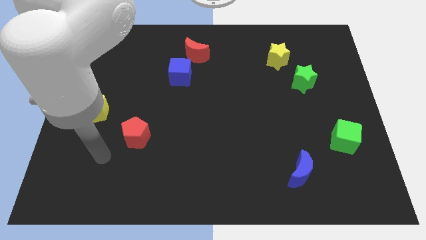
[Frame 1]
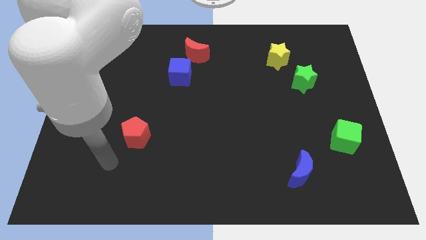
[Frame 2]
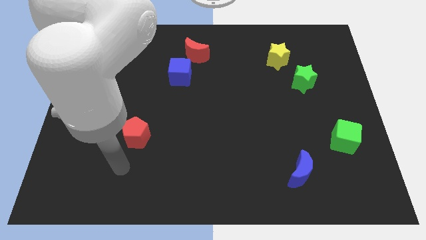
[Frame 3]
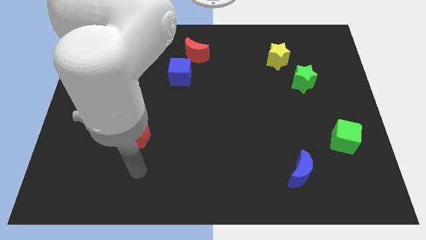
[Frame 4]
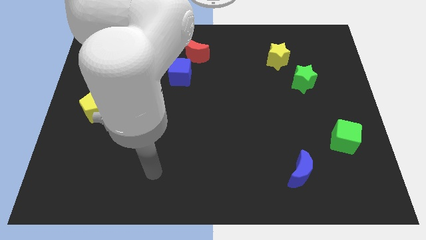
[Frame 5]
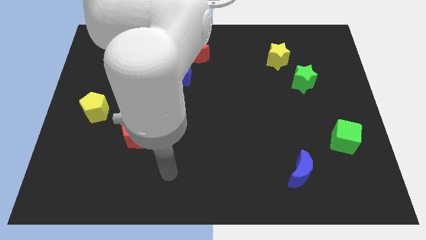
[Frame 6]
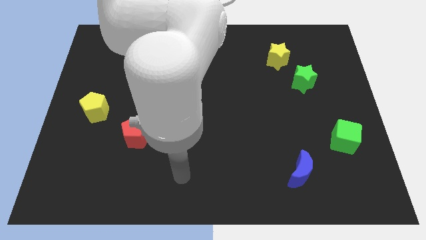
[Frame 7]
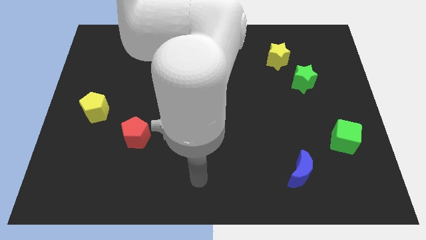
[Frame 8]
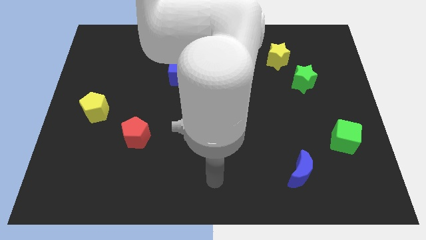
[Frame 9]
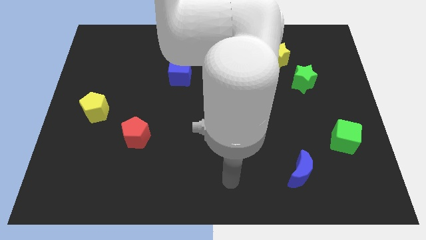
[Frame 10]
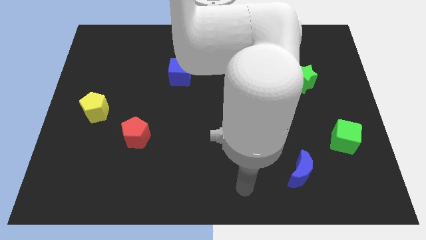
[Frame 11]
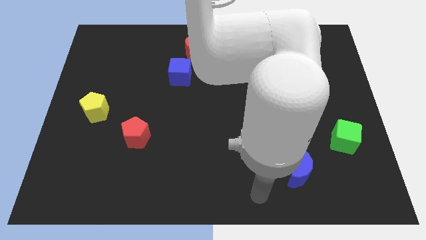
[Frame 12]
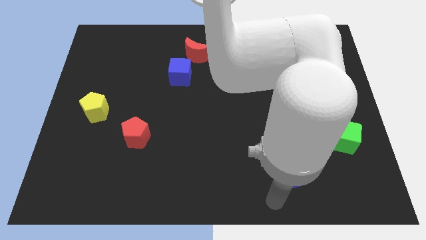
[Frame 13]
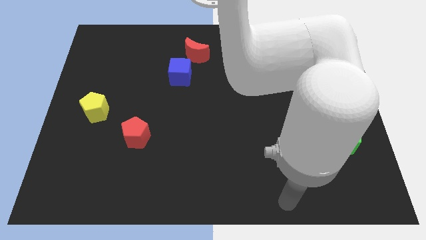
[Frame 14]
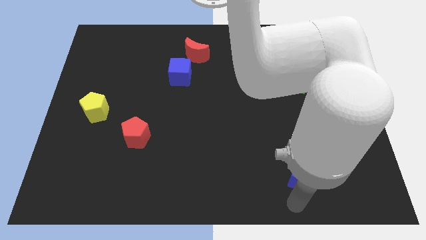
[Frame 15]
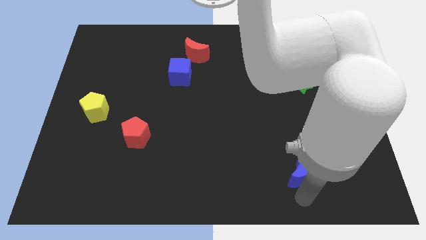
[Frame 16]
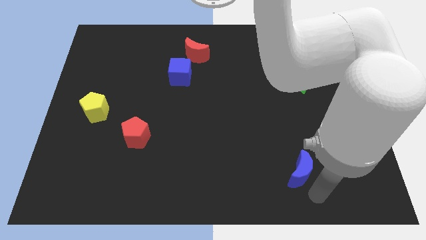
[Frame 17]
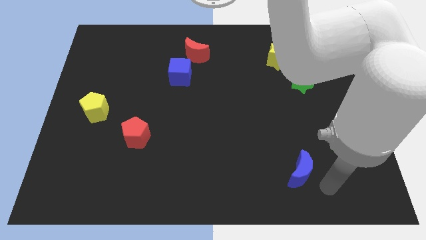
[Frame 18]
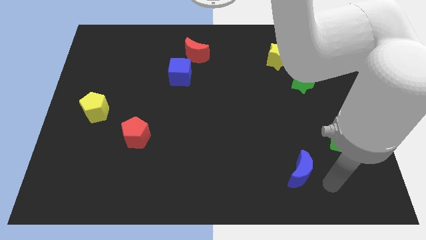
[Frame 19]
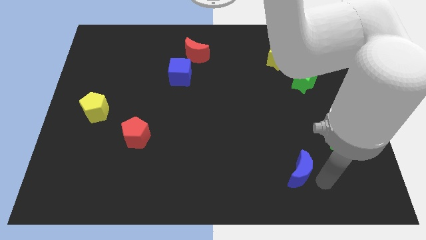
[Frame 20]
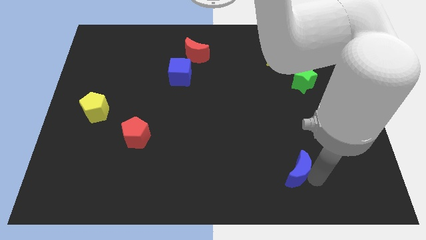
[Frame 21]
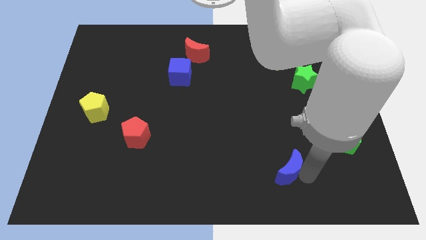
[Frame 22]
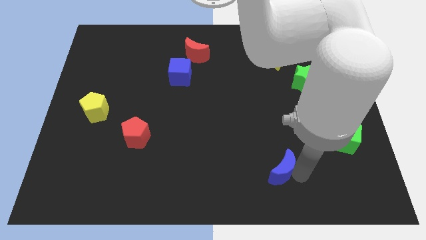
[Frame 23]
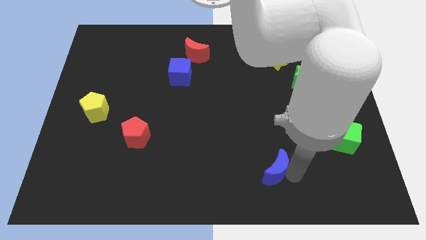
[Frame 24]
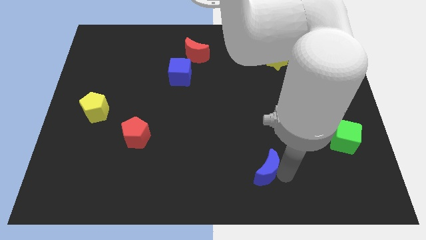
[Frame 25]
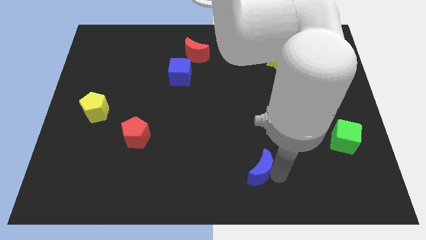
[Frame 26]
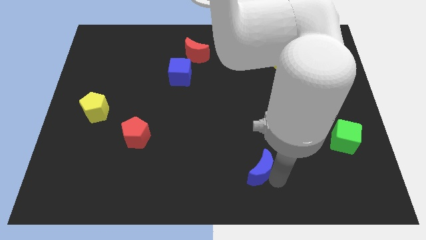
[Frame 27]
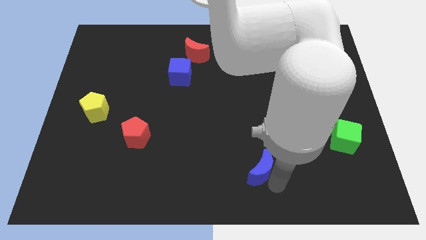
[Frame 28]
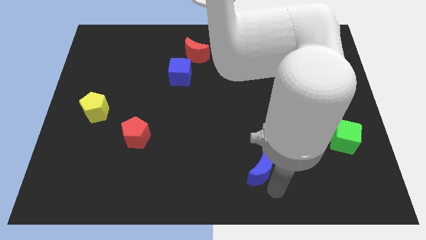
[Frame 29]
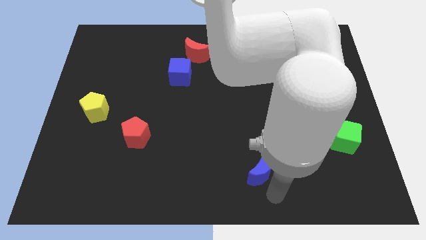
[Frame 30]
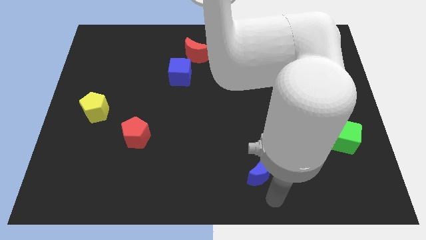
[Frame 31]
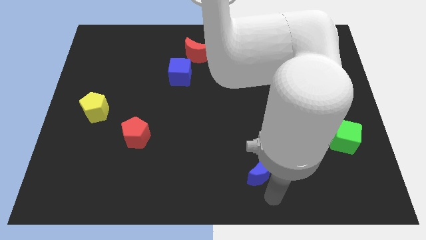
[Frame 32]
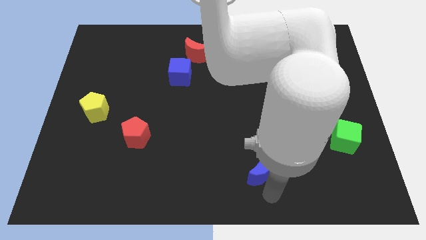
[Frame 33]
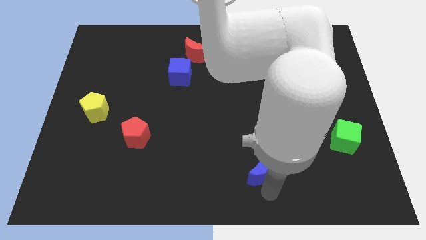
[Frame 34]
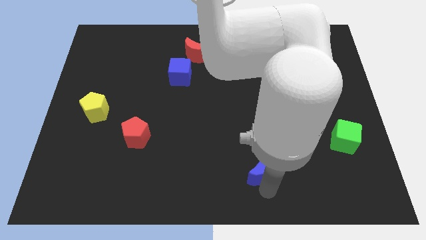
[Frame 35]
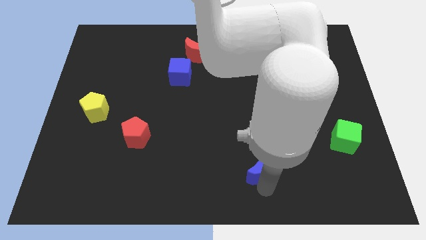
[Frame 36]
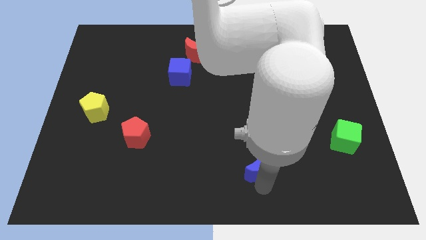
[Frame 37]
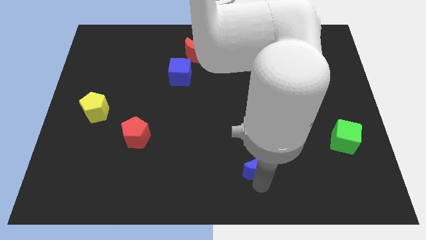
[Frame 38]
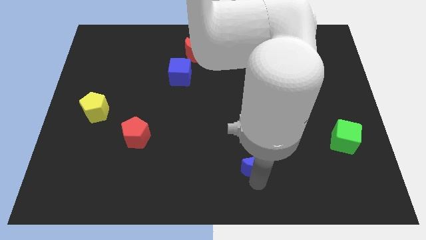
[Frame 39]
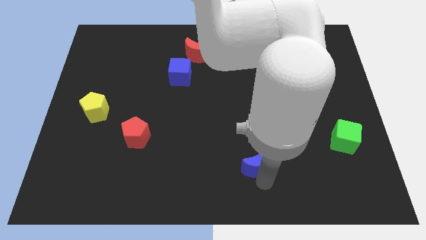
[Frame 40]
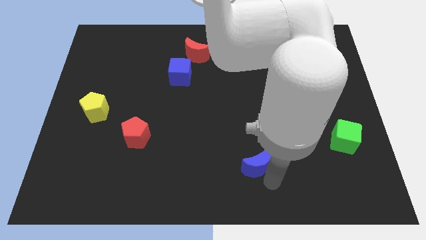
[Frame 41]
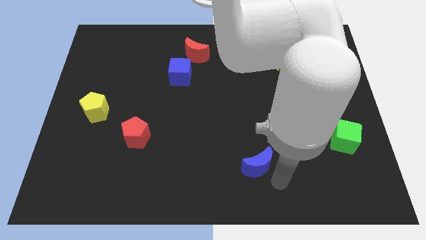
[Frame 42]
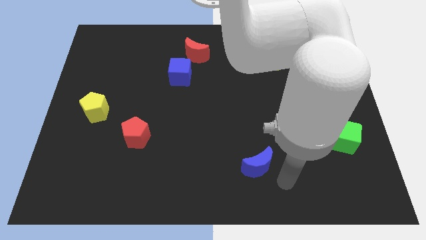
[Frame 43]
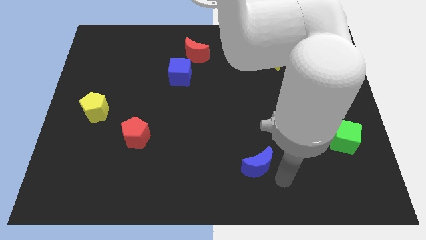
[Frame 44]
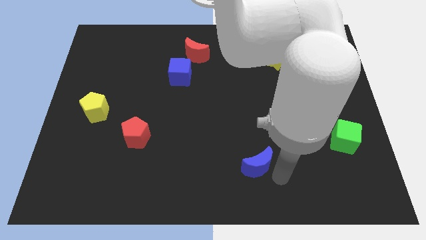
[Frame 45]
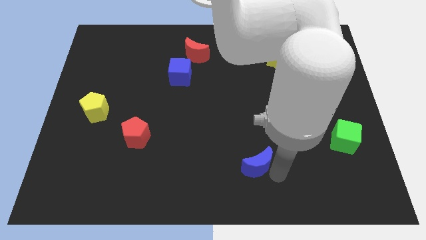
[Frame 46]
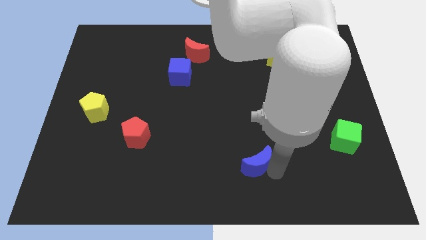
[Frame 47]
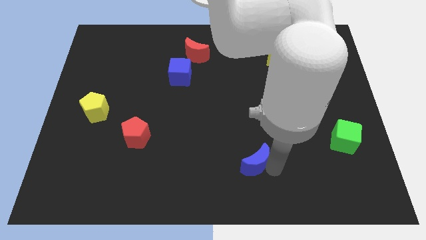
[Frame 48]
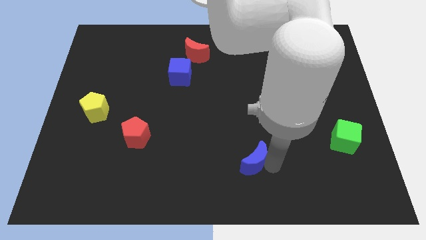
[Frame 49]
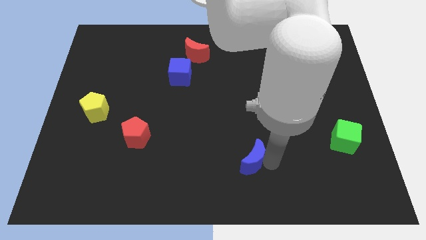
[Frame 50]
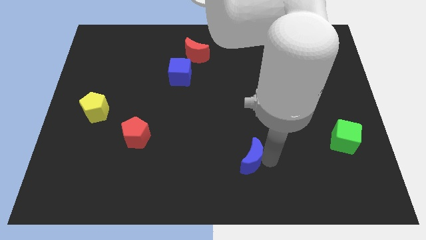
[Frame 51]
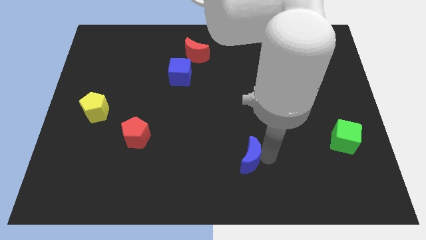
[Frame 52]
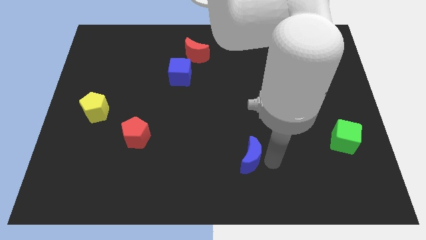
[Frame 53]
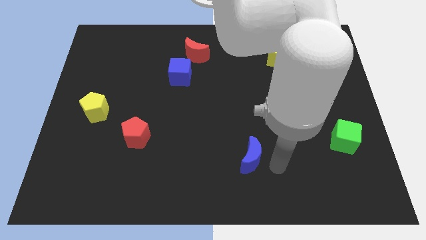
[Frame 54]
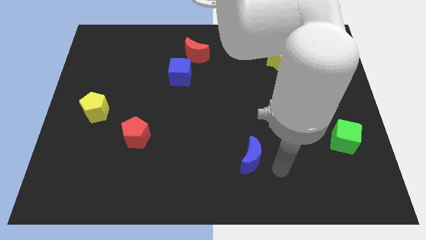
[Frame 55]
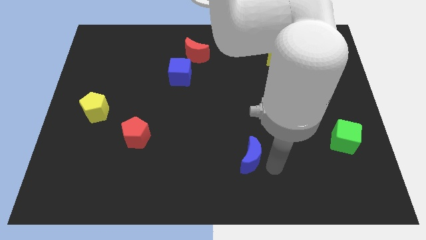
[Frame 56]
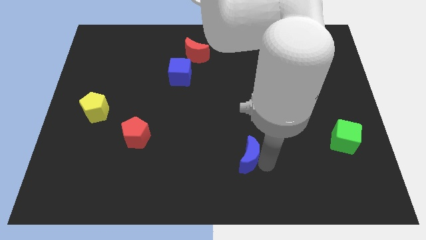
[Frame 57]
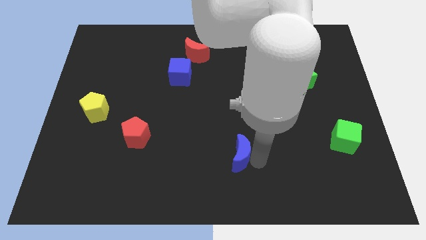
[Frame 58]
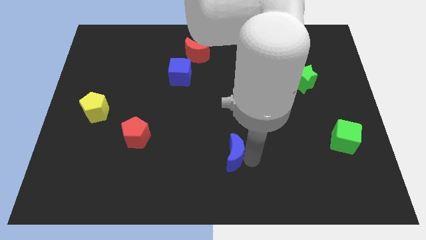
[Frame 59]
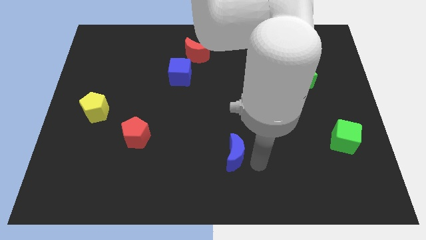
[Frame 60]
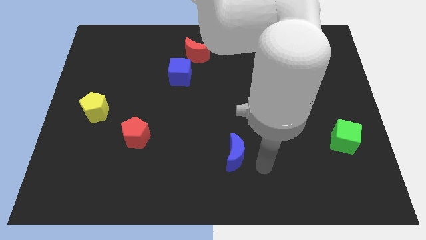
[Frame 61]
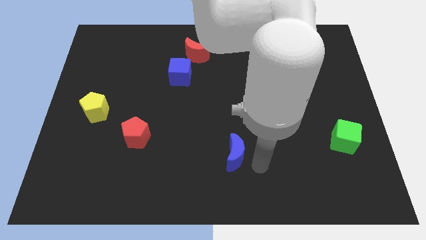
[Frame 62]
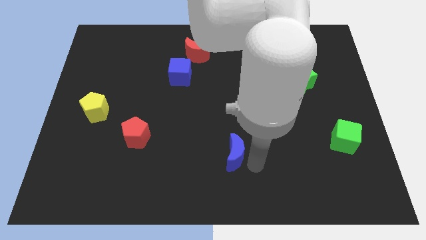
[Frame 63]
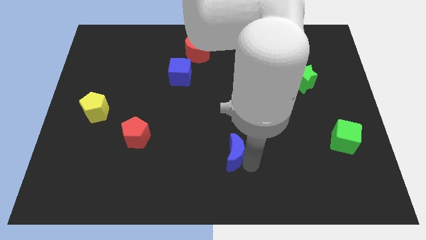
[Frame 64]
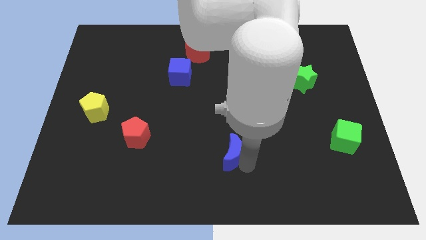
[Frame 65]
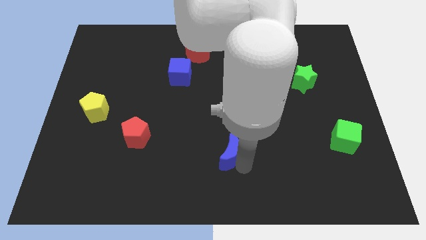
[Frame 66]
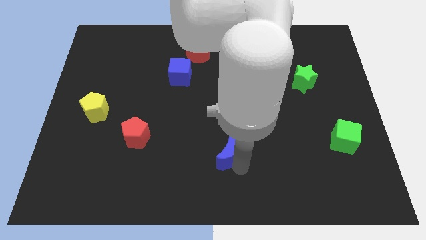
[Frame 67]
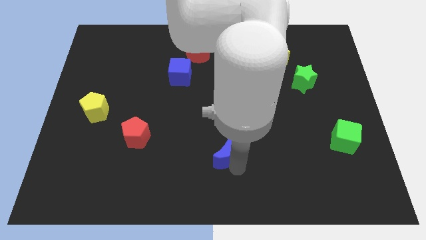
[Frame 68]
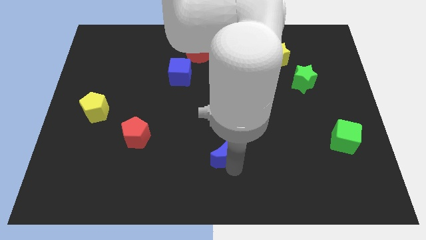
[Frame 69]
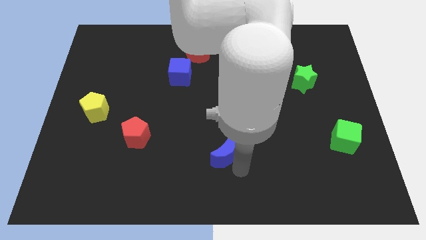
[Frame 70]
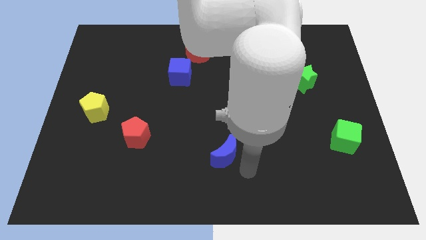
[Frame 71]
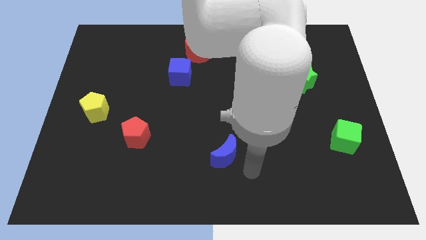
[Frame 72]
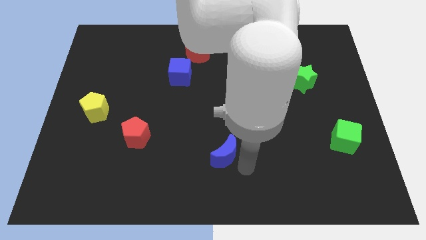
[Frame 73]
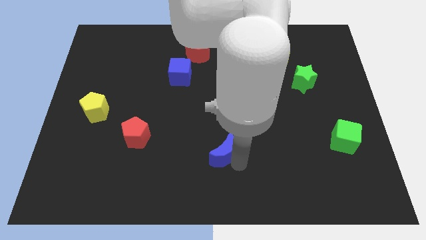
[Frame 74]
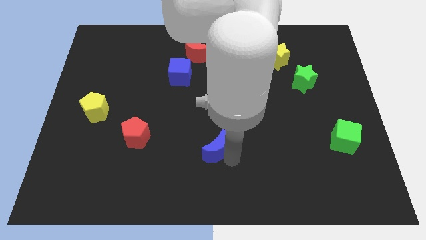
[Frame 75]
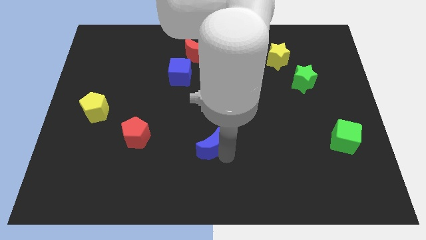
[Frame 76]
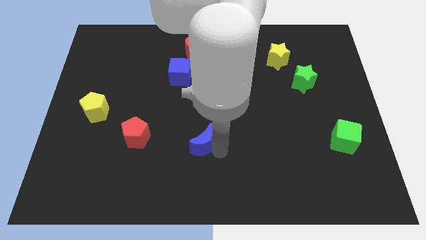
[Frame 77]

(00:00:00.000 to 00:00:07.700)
slide the blue moon right of the red pentagon

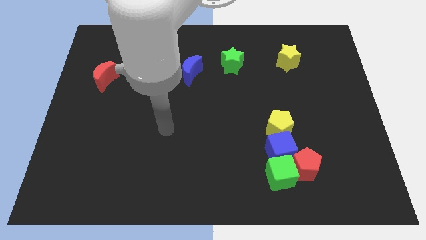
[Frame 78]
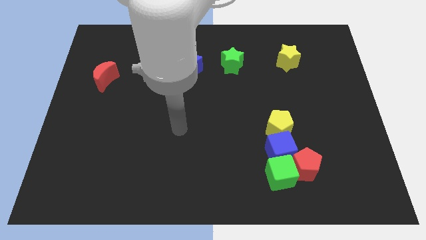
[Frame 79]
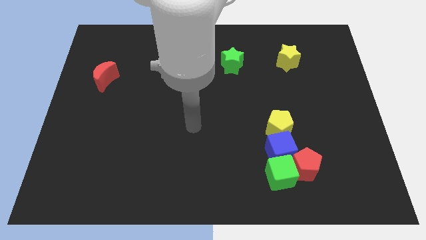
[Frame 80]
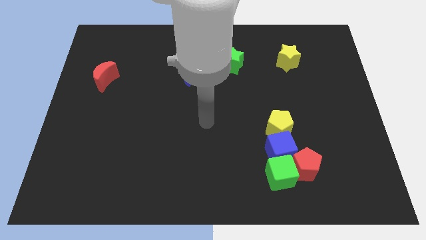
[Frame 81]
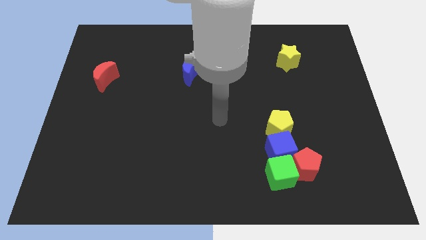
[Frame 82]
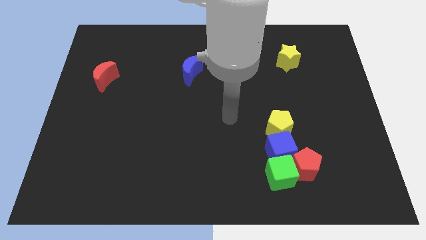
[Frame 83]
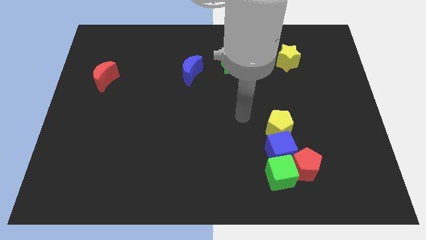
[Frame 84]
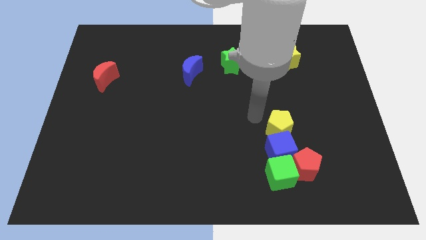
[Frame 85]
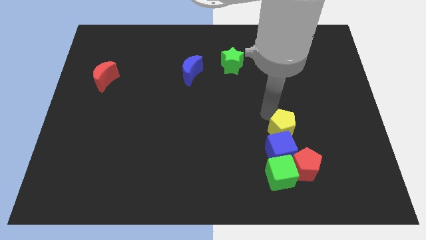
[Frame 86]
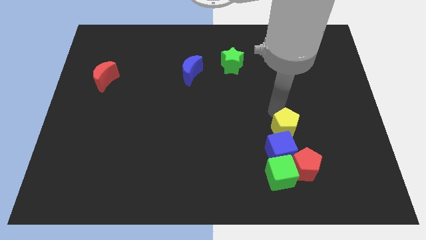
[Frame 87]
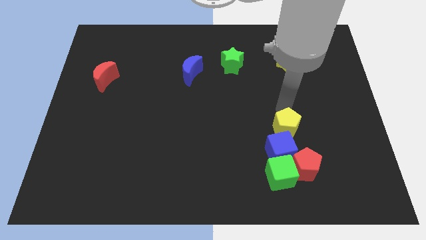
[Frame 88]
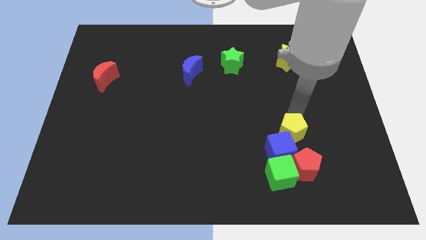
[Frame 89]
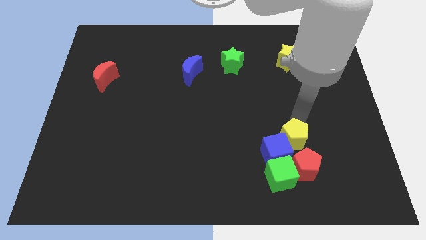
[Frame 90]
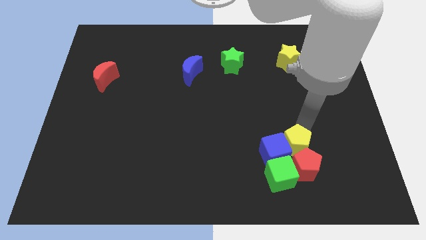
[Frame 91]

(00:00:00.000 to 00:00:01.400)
push the red pentagon to the bottom left of the yellow pentagon
